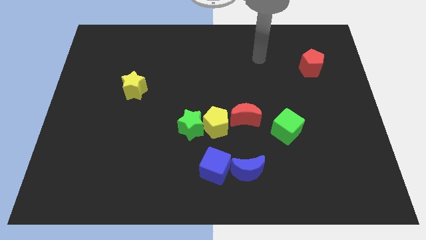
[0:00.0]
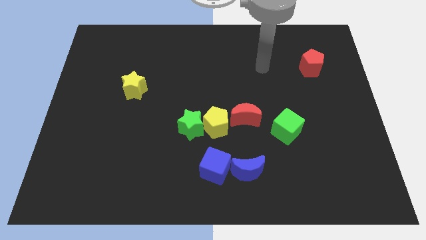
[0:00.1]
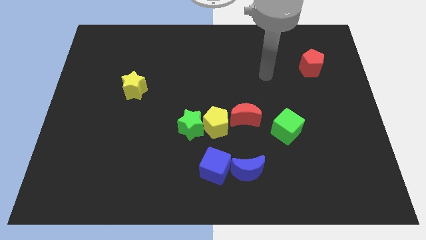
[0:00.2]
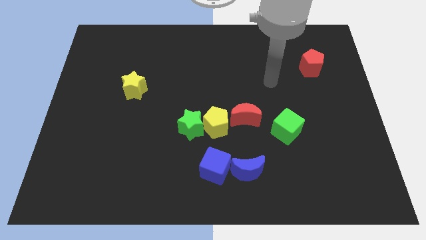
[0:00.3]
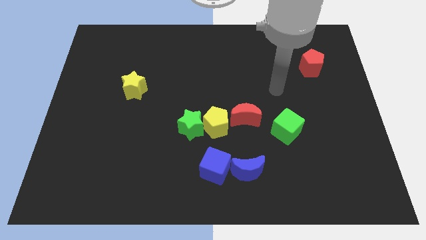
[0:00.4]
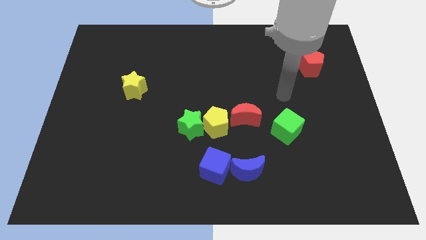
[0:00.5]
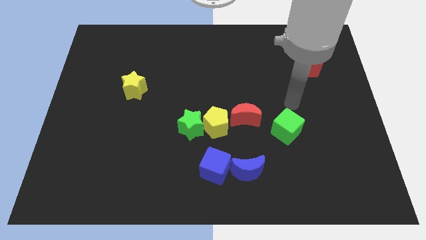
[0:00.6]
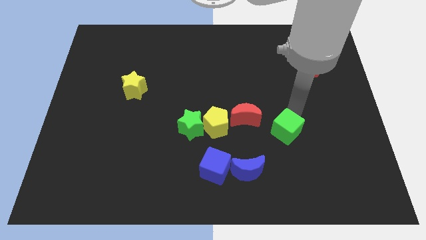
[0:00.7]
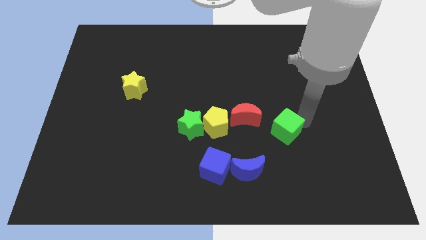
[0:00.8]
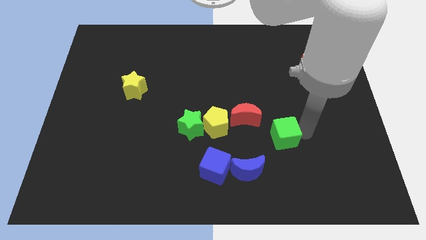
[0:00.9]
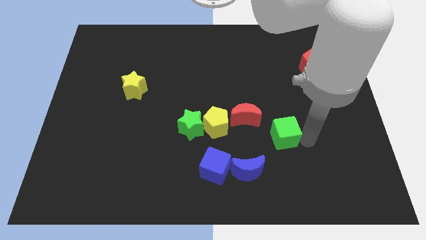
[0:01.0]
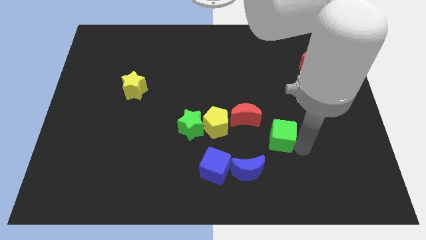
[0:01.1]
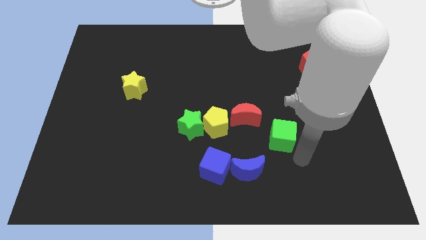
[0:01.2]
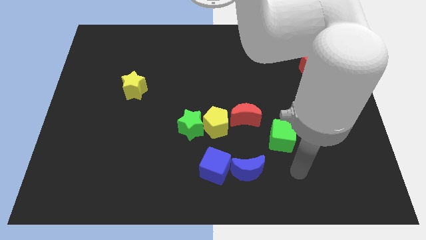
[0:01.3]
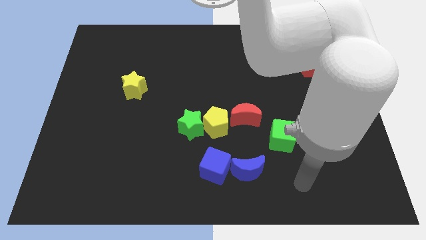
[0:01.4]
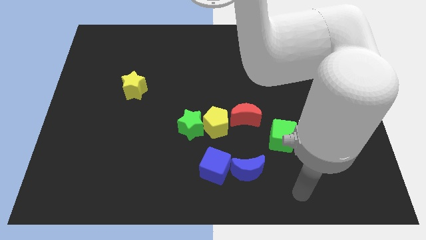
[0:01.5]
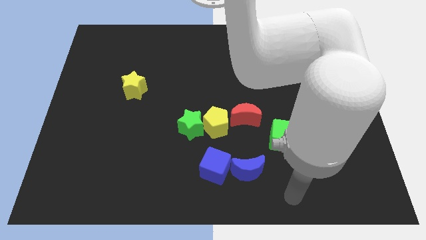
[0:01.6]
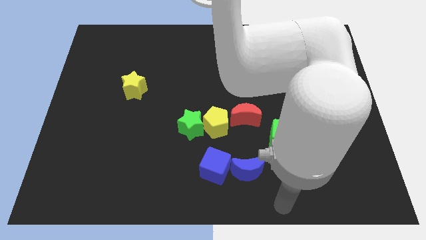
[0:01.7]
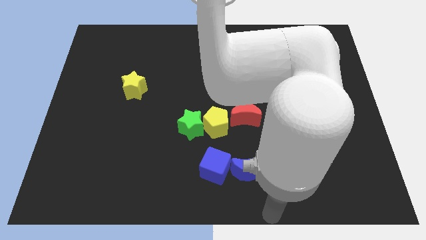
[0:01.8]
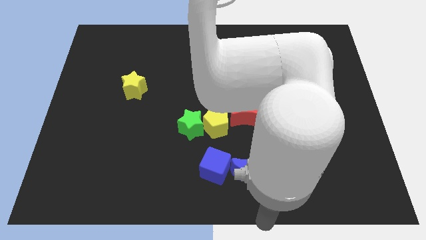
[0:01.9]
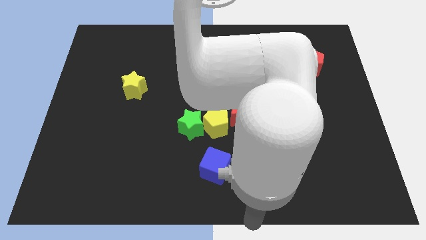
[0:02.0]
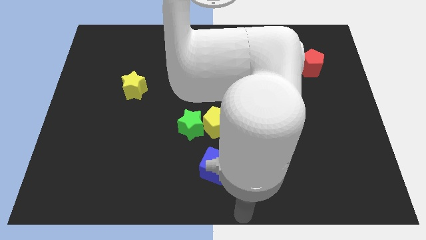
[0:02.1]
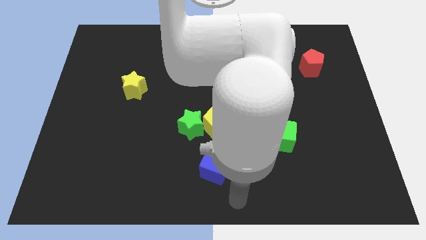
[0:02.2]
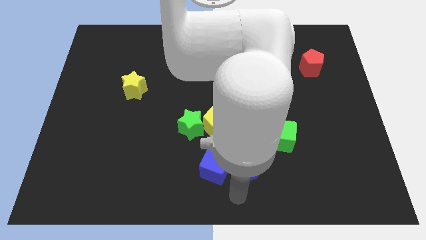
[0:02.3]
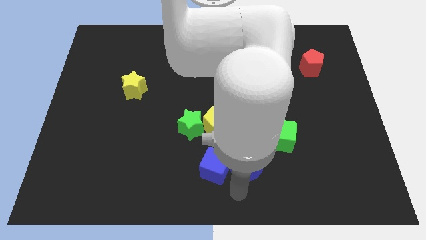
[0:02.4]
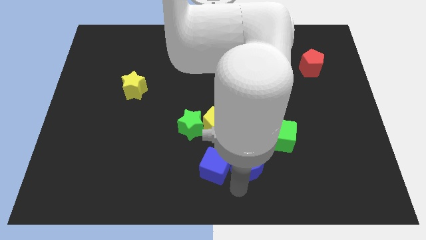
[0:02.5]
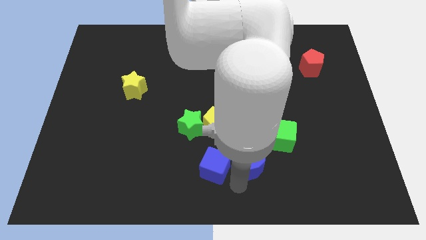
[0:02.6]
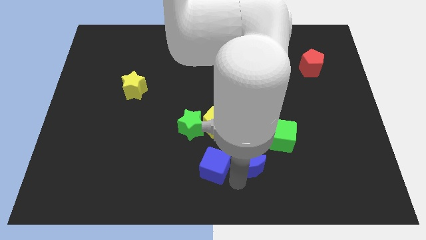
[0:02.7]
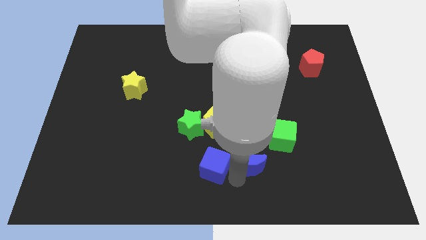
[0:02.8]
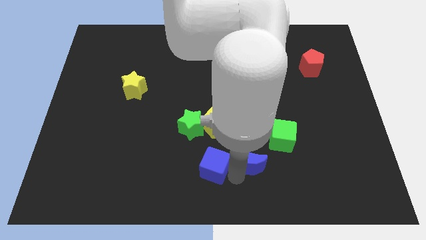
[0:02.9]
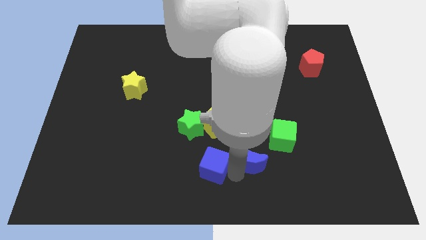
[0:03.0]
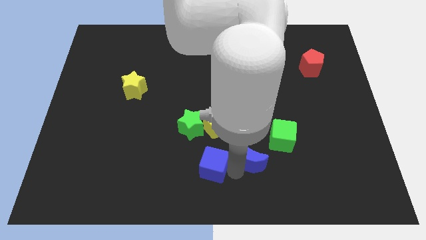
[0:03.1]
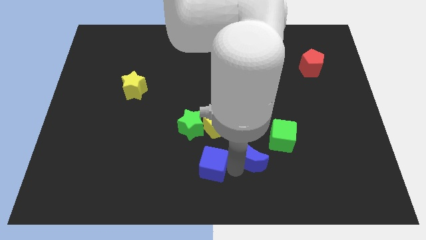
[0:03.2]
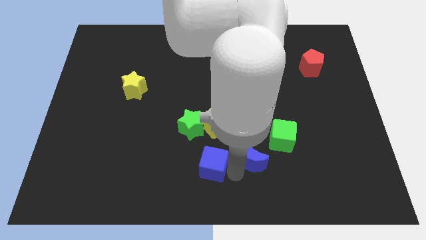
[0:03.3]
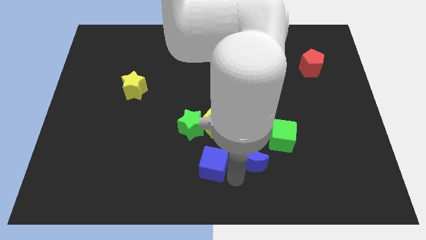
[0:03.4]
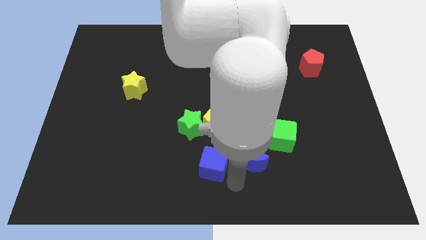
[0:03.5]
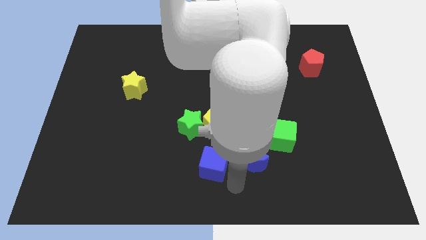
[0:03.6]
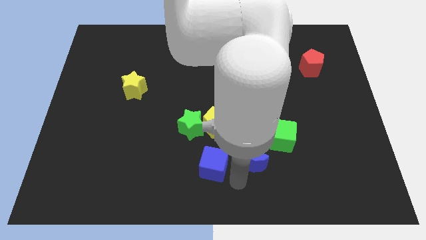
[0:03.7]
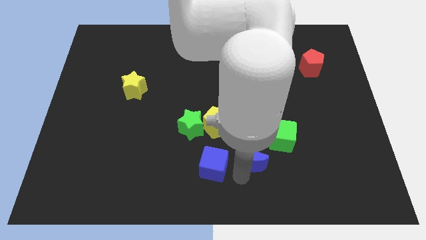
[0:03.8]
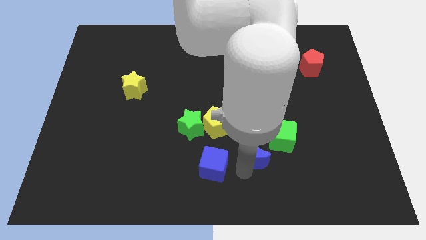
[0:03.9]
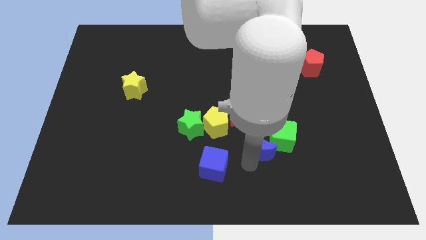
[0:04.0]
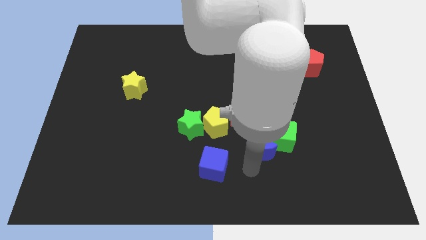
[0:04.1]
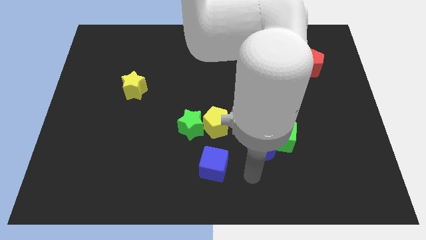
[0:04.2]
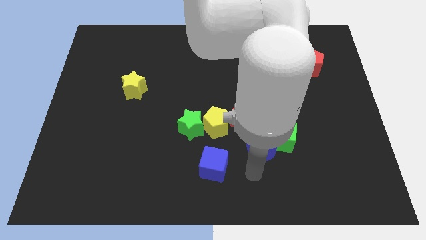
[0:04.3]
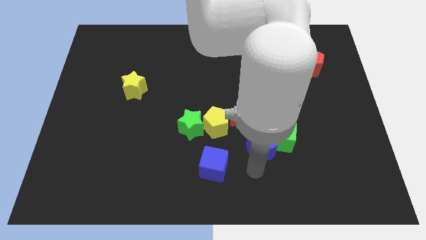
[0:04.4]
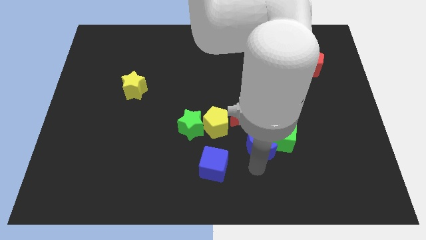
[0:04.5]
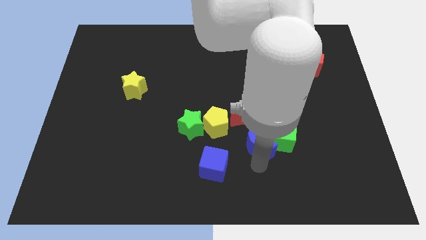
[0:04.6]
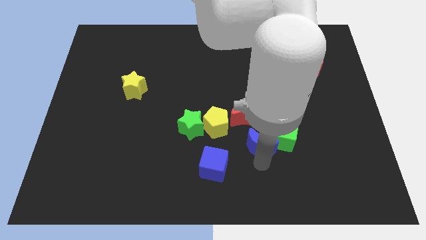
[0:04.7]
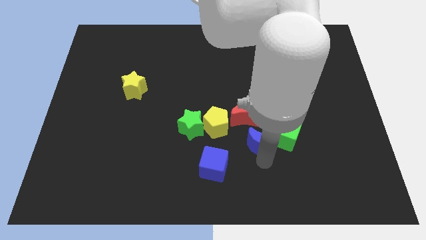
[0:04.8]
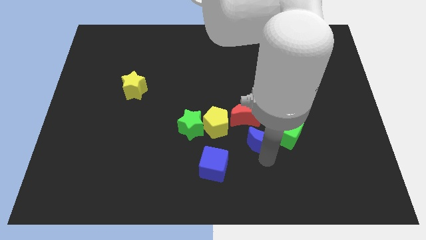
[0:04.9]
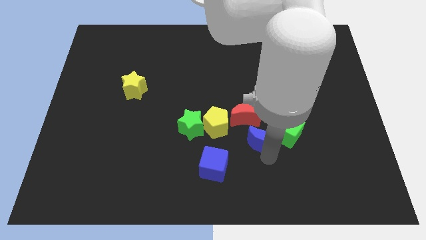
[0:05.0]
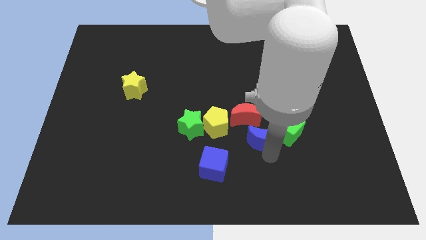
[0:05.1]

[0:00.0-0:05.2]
push the blue moon up a little

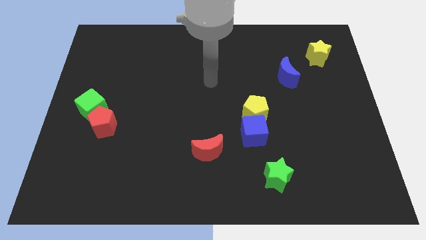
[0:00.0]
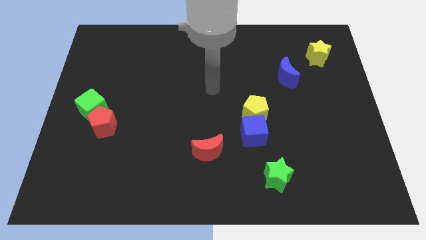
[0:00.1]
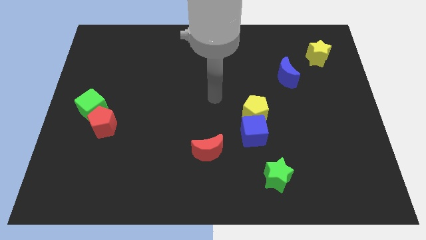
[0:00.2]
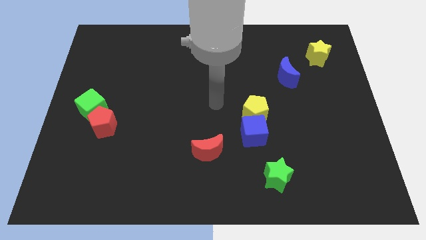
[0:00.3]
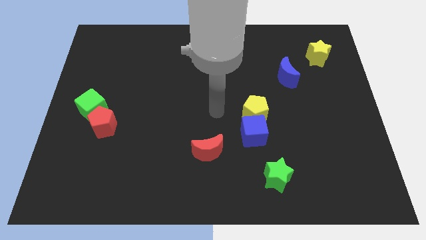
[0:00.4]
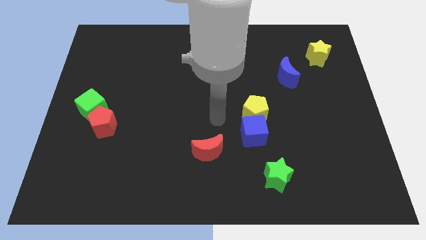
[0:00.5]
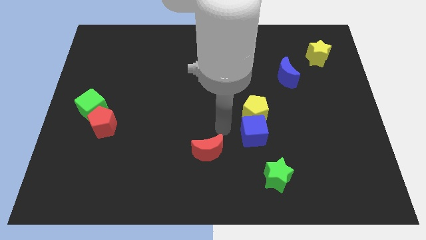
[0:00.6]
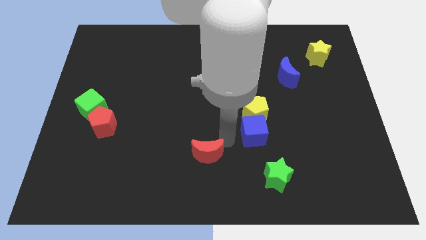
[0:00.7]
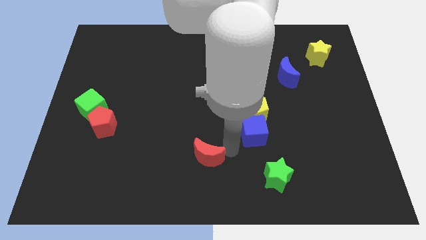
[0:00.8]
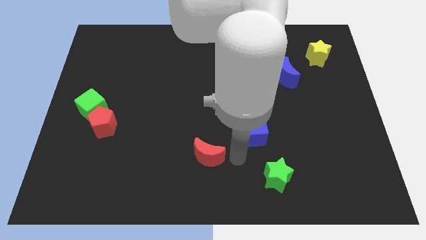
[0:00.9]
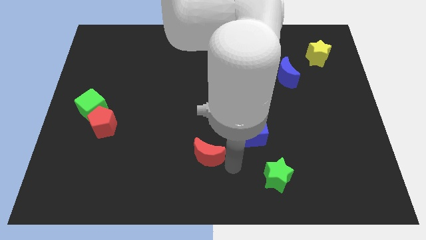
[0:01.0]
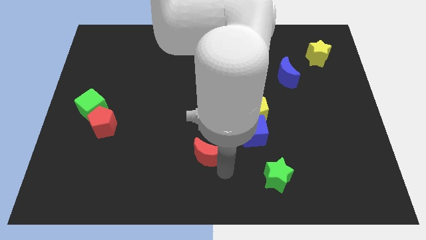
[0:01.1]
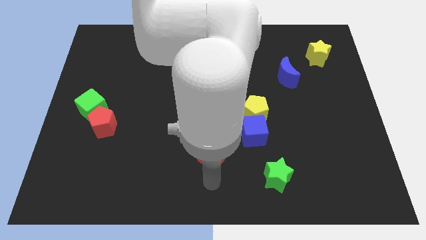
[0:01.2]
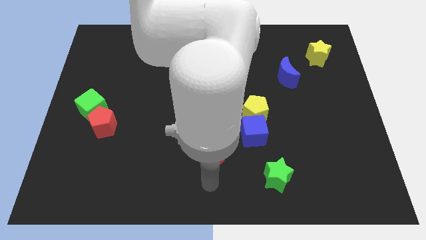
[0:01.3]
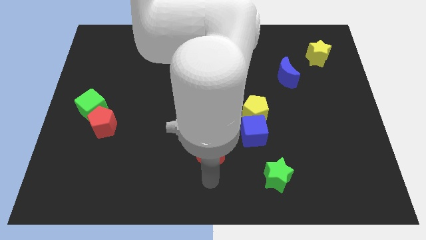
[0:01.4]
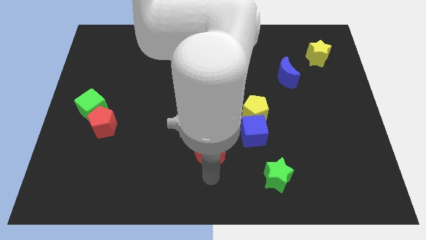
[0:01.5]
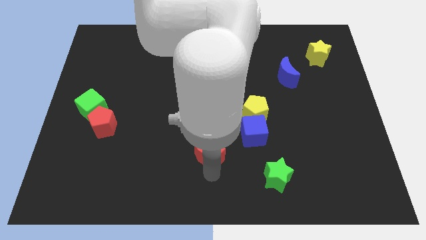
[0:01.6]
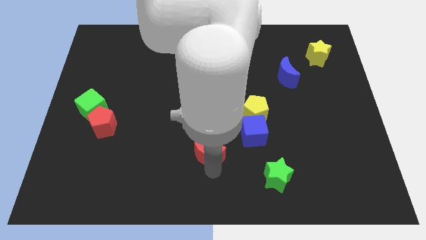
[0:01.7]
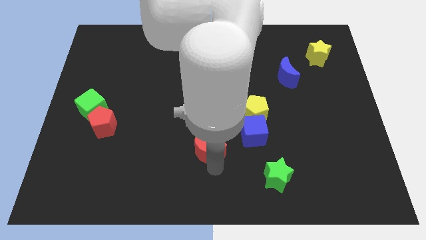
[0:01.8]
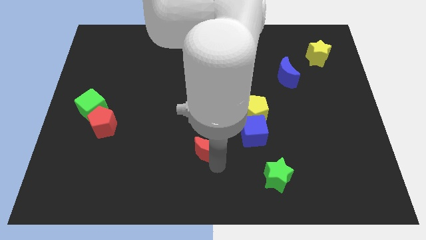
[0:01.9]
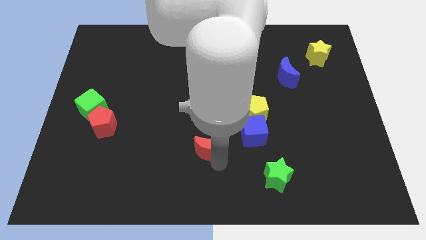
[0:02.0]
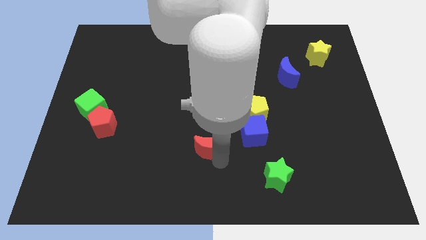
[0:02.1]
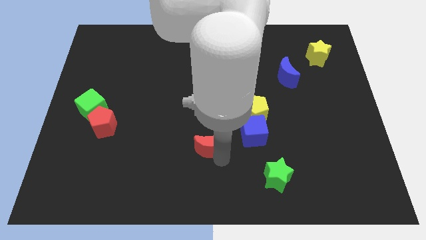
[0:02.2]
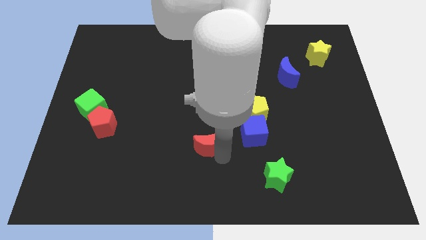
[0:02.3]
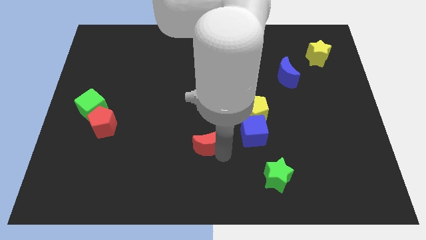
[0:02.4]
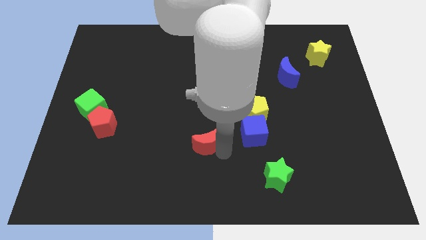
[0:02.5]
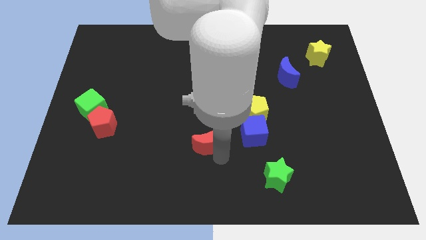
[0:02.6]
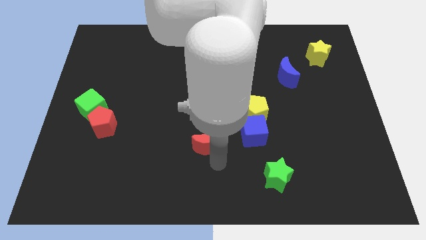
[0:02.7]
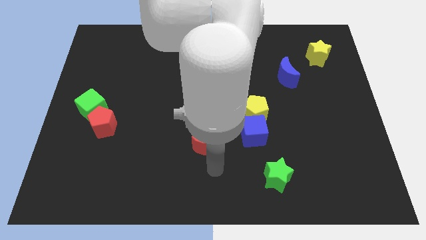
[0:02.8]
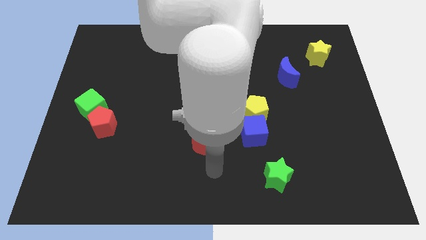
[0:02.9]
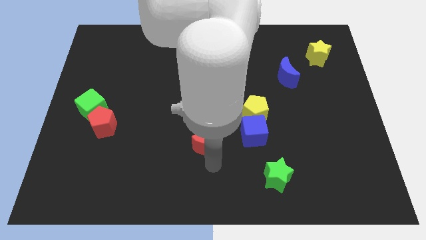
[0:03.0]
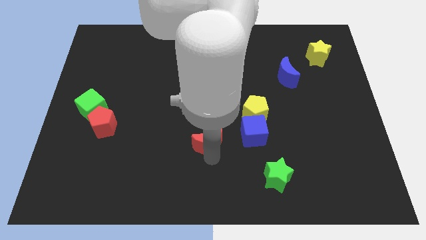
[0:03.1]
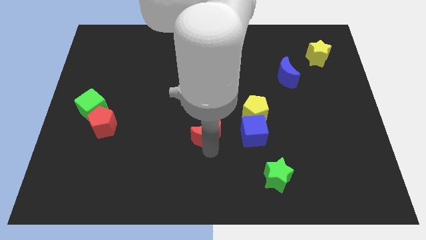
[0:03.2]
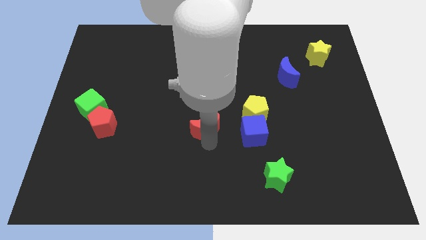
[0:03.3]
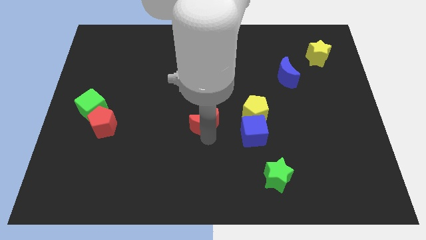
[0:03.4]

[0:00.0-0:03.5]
push the red moon a little upwards
